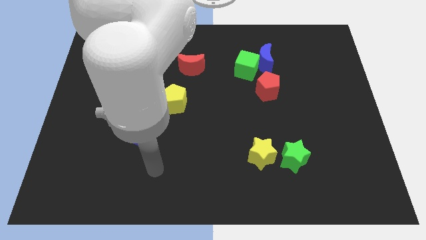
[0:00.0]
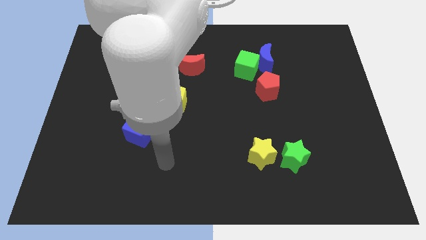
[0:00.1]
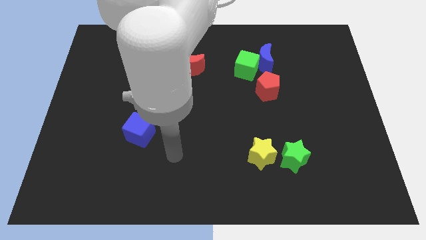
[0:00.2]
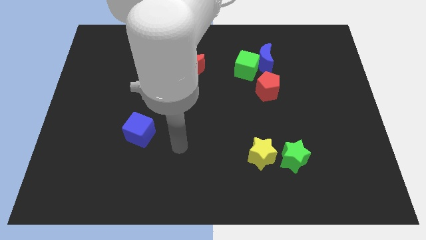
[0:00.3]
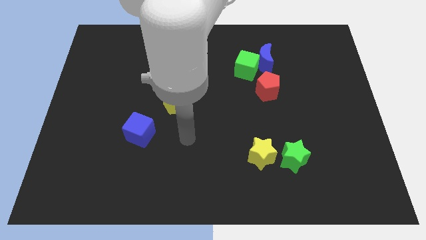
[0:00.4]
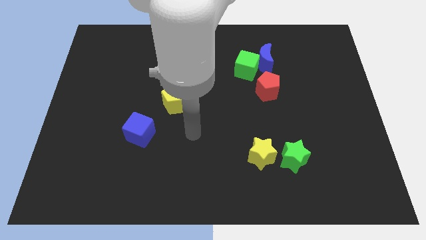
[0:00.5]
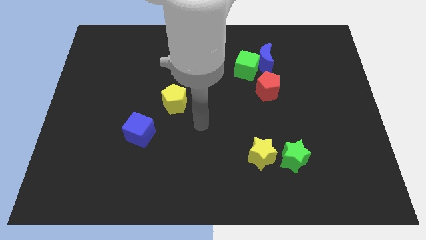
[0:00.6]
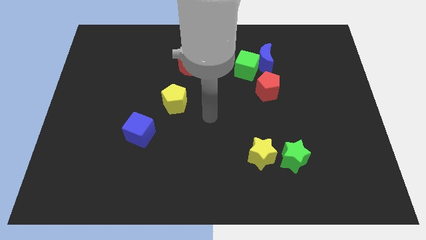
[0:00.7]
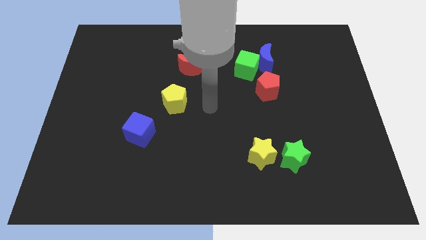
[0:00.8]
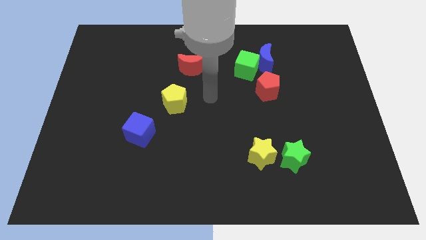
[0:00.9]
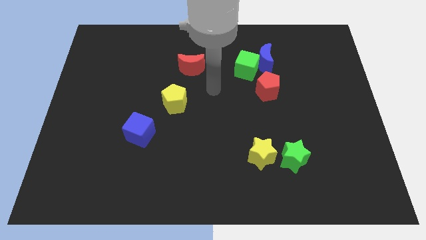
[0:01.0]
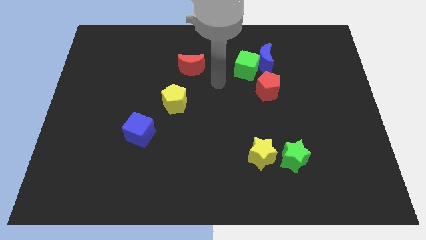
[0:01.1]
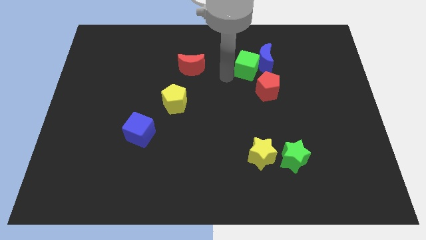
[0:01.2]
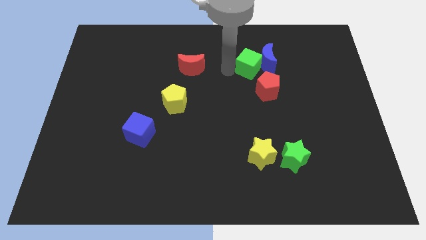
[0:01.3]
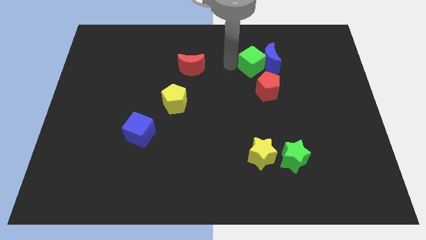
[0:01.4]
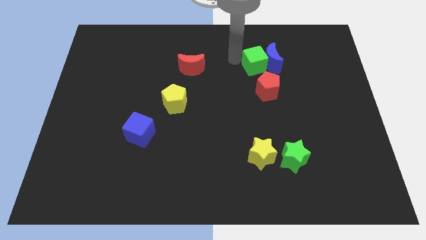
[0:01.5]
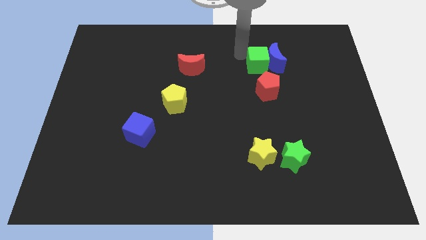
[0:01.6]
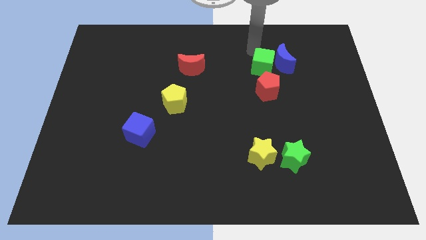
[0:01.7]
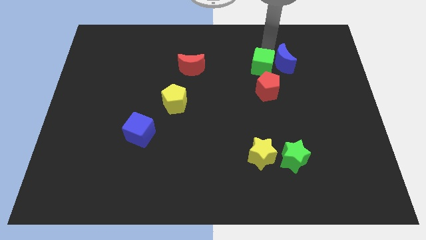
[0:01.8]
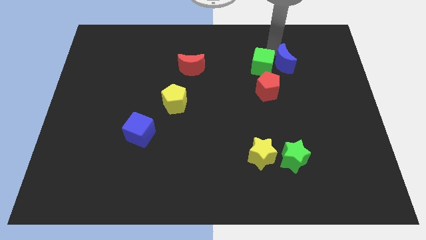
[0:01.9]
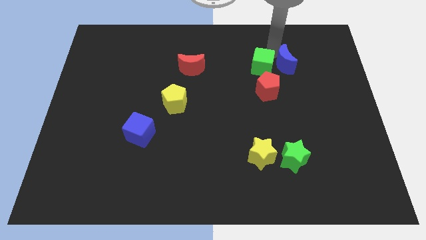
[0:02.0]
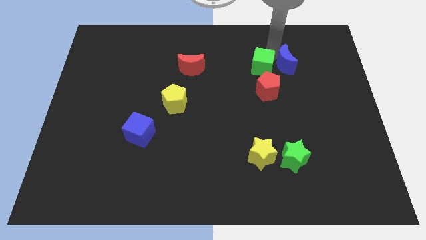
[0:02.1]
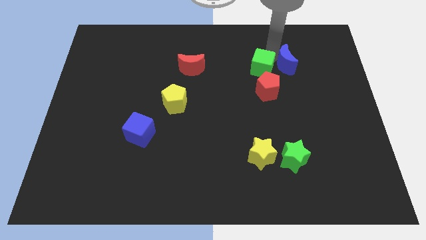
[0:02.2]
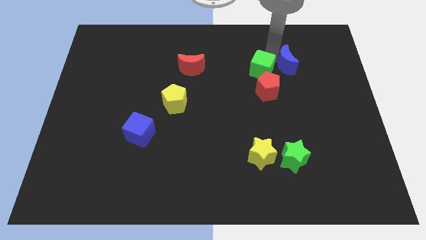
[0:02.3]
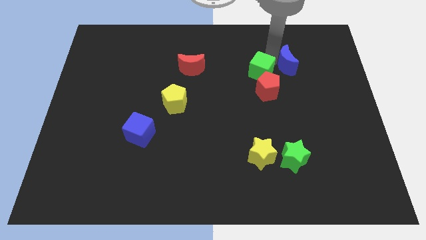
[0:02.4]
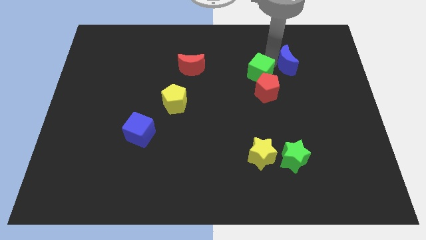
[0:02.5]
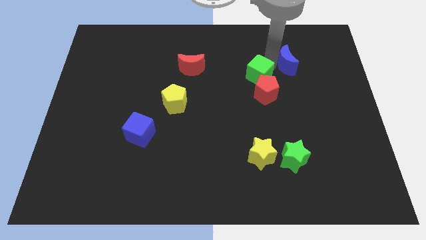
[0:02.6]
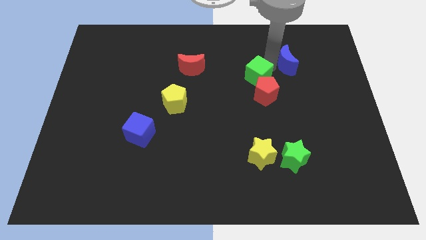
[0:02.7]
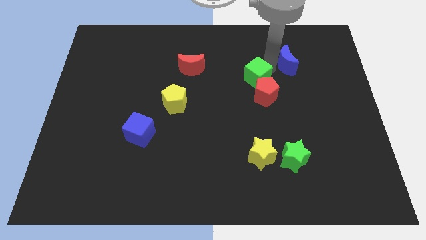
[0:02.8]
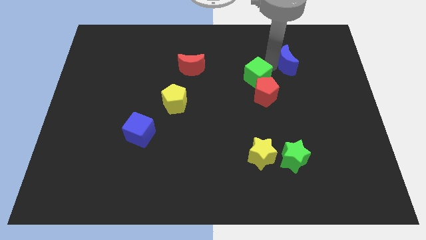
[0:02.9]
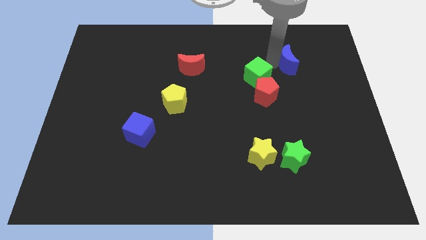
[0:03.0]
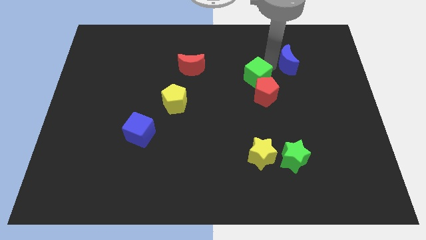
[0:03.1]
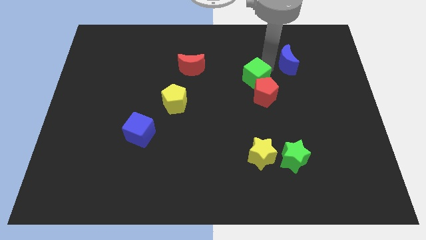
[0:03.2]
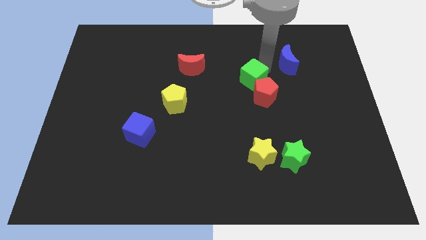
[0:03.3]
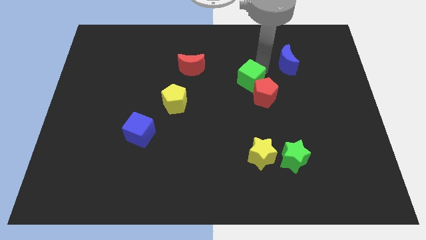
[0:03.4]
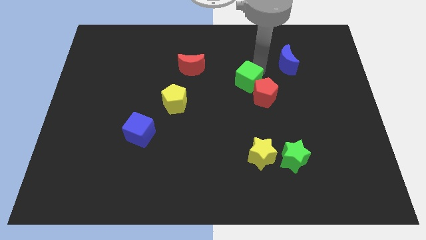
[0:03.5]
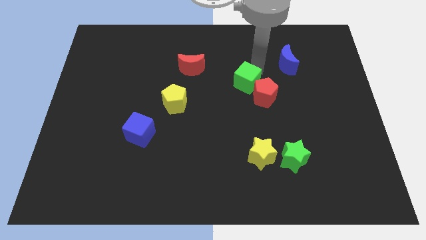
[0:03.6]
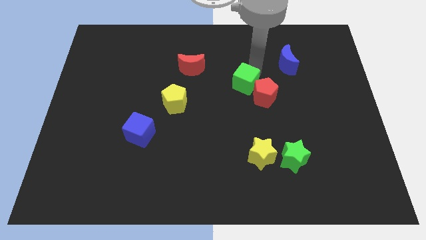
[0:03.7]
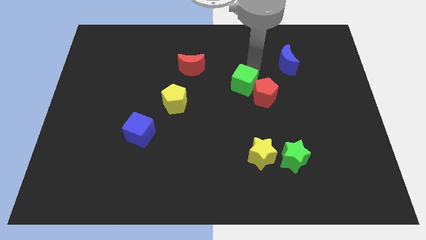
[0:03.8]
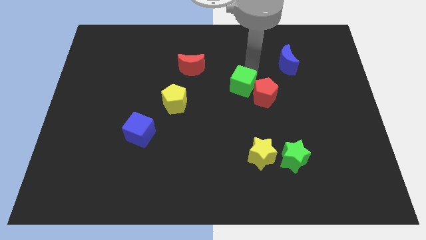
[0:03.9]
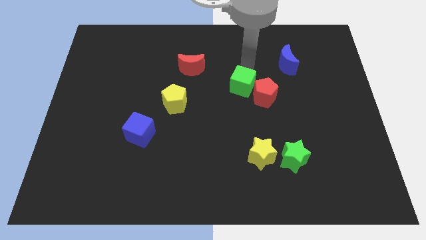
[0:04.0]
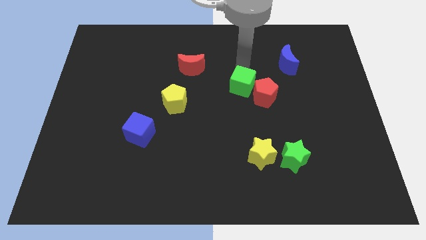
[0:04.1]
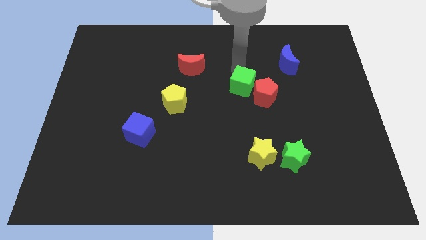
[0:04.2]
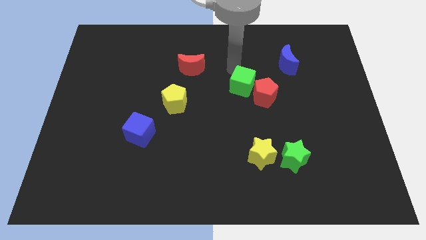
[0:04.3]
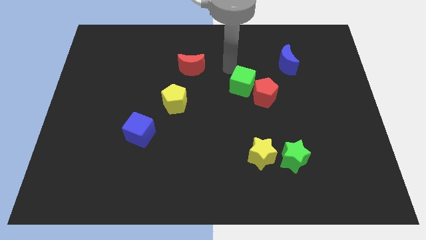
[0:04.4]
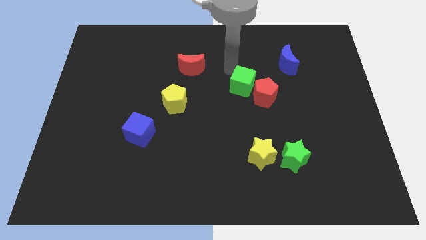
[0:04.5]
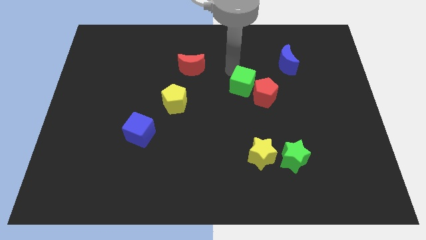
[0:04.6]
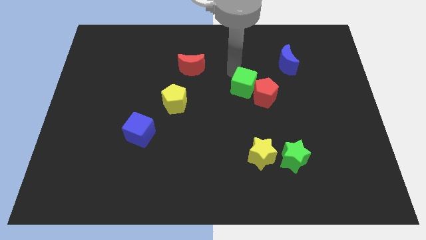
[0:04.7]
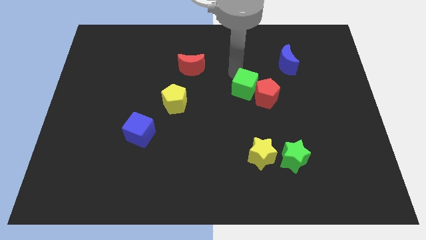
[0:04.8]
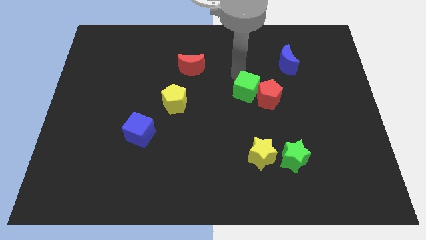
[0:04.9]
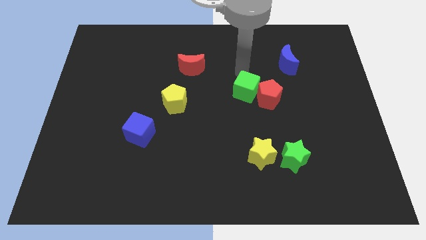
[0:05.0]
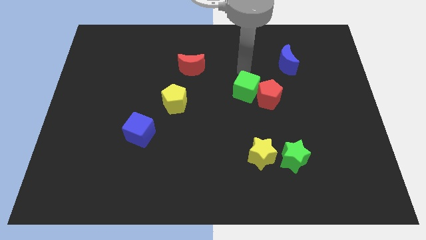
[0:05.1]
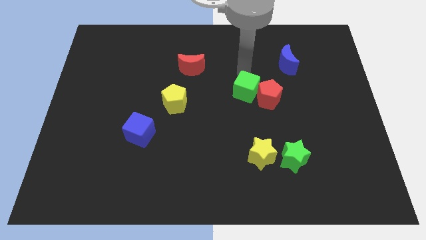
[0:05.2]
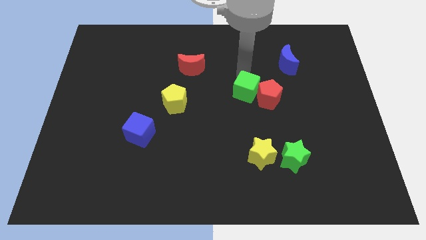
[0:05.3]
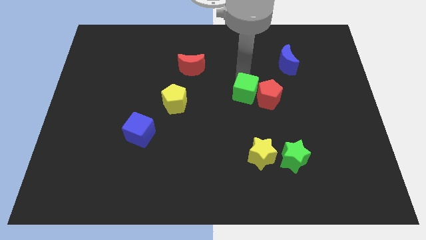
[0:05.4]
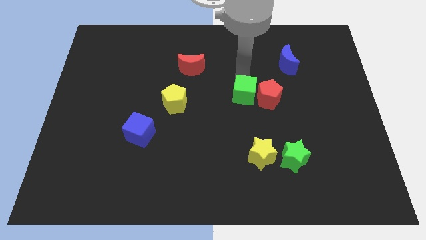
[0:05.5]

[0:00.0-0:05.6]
move the green cube to the bottom left of the red pentagon

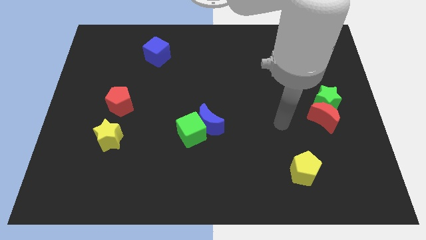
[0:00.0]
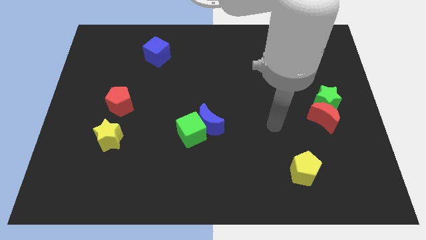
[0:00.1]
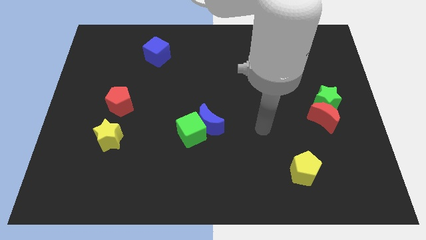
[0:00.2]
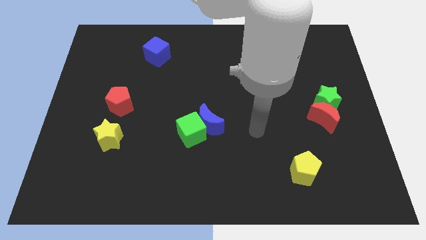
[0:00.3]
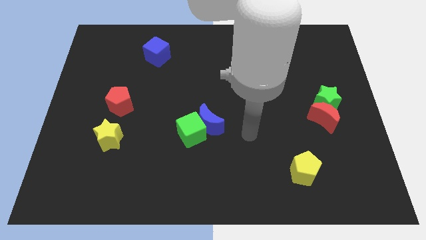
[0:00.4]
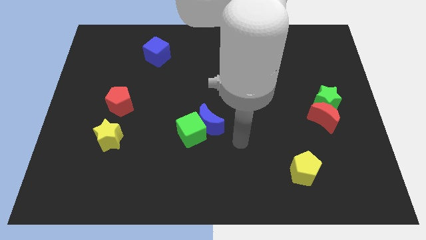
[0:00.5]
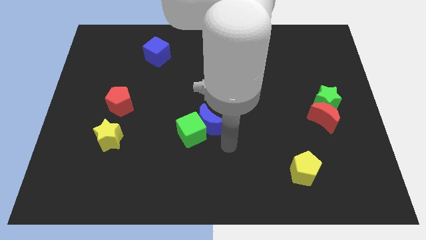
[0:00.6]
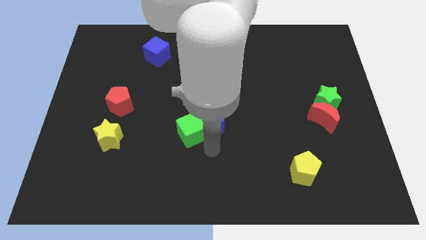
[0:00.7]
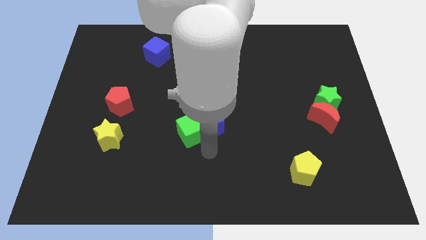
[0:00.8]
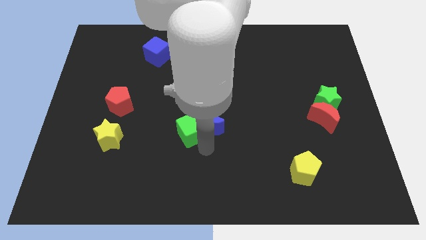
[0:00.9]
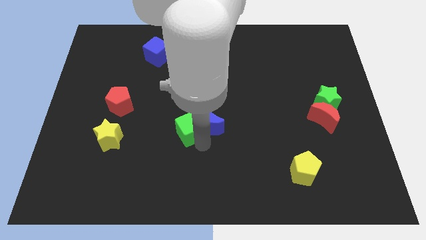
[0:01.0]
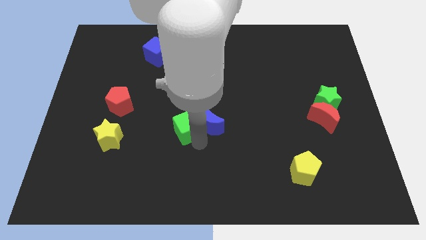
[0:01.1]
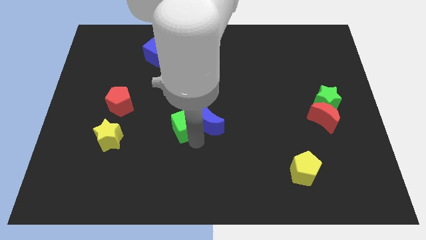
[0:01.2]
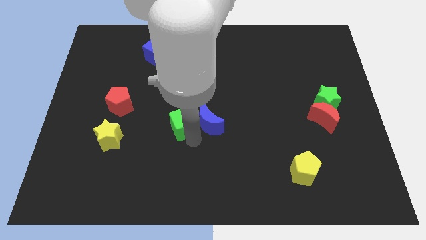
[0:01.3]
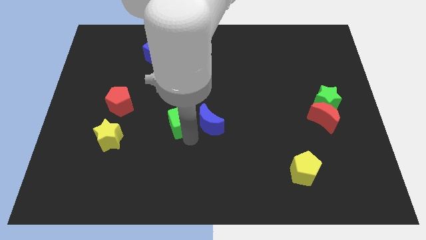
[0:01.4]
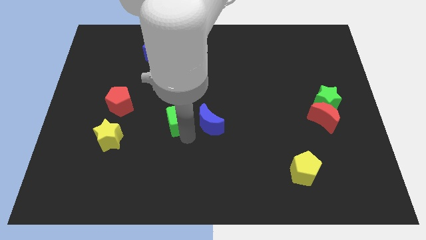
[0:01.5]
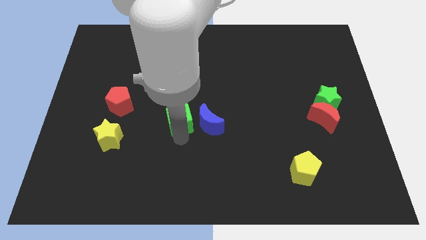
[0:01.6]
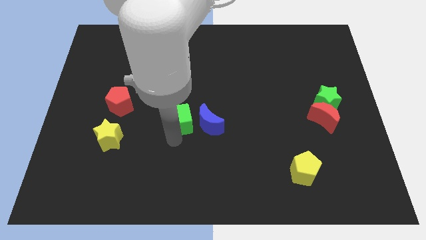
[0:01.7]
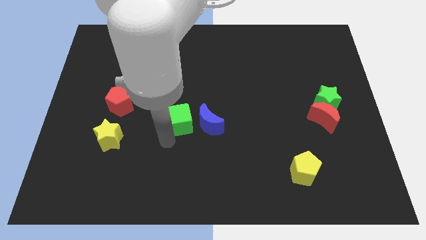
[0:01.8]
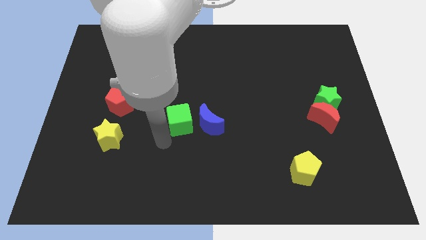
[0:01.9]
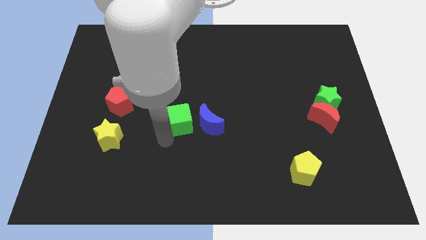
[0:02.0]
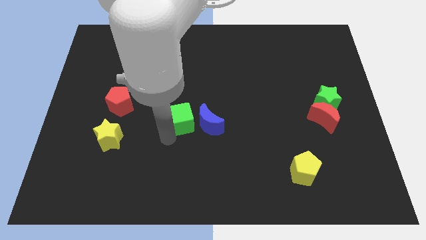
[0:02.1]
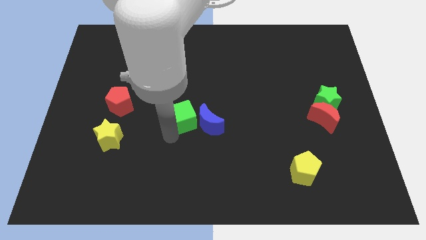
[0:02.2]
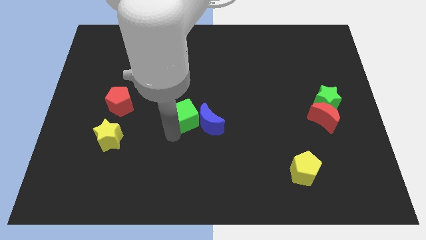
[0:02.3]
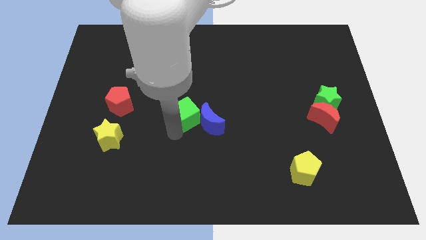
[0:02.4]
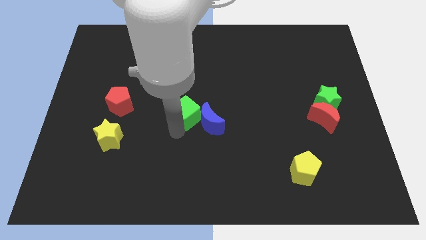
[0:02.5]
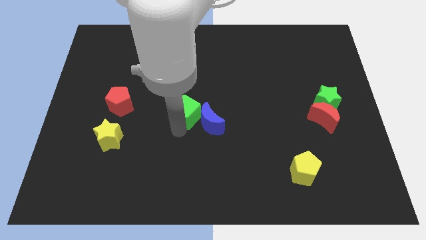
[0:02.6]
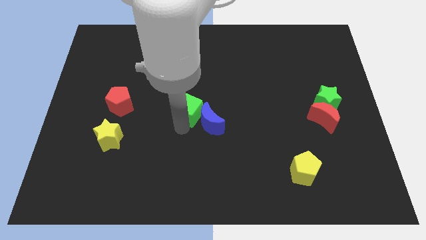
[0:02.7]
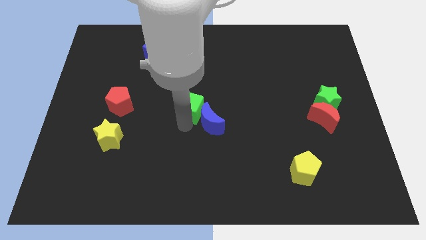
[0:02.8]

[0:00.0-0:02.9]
push the green cube to the top of the blue moon
